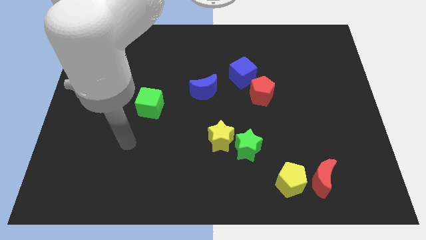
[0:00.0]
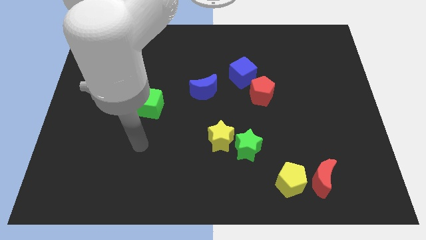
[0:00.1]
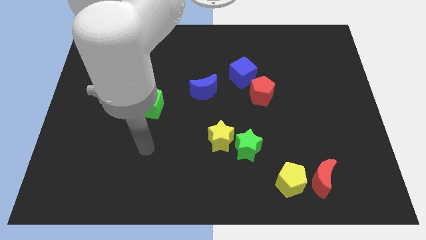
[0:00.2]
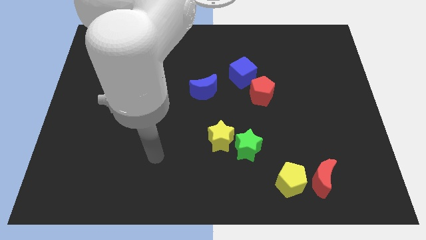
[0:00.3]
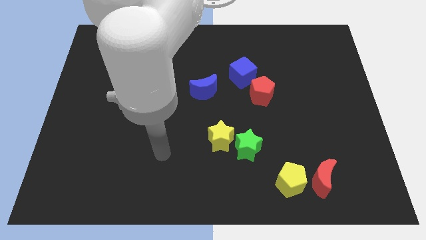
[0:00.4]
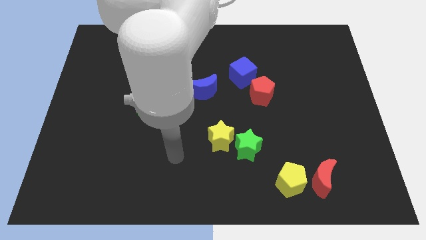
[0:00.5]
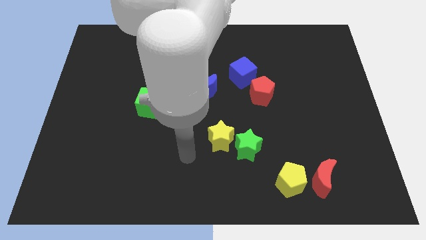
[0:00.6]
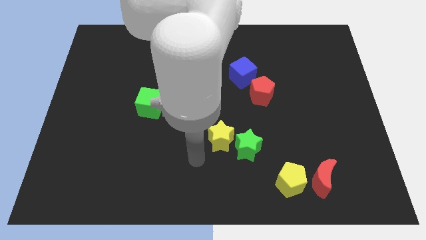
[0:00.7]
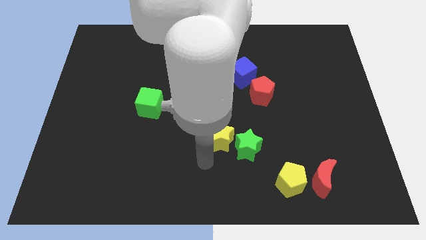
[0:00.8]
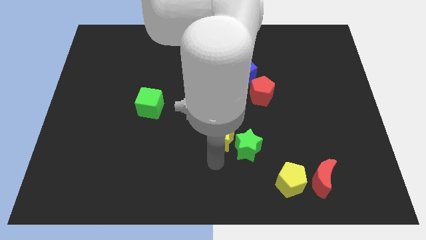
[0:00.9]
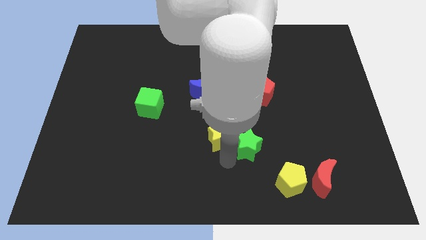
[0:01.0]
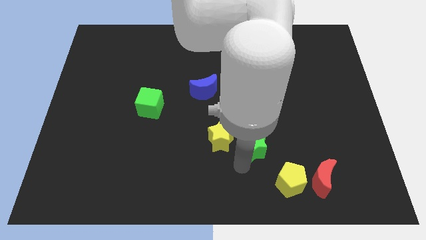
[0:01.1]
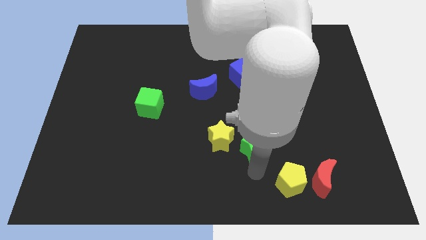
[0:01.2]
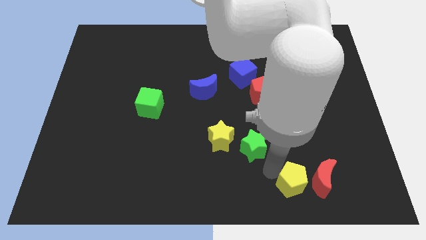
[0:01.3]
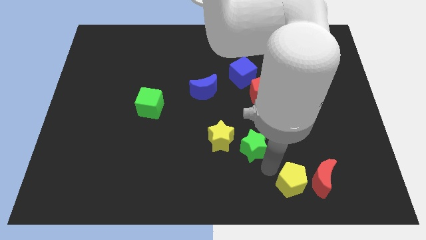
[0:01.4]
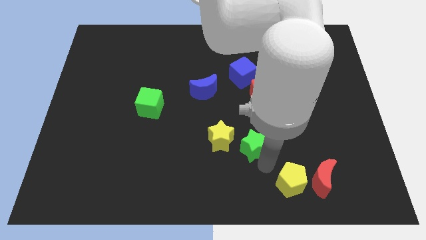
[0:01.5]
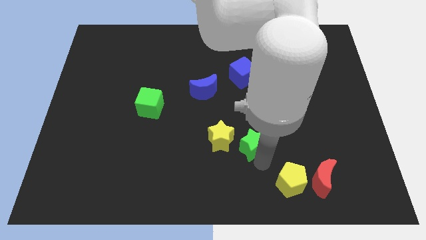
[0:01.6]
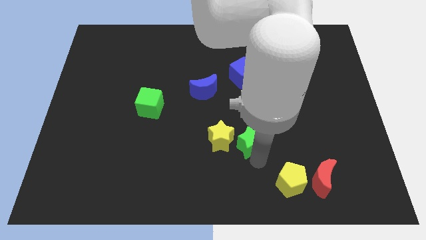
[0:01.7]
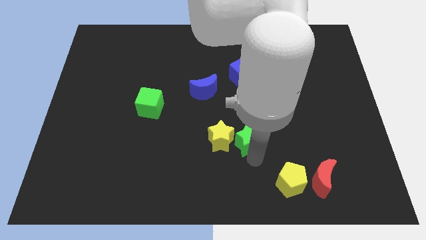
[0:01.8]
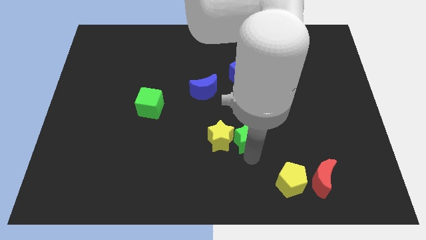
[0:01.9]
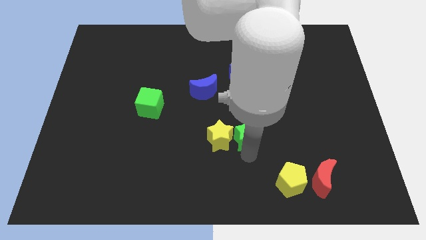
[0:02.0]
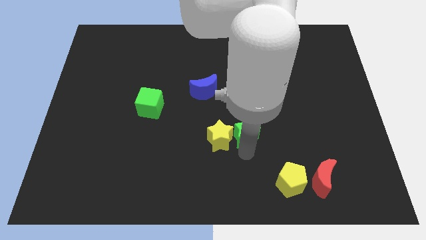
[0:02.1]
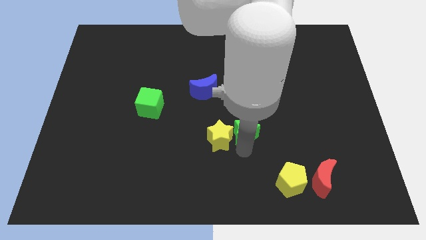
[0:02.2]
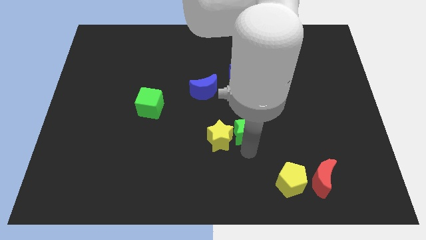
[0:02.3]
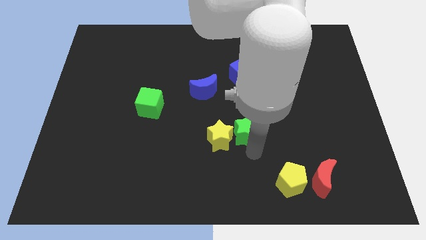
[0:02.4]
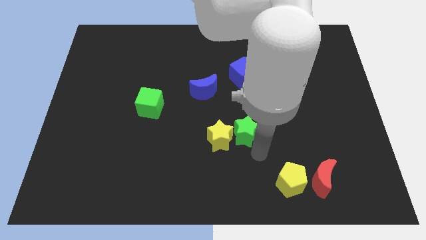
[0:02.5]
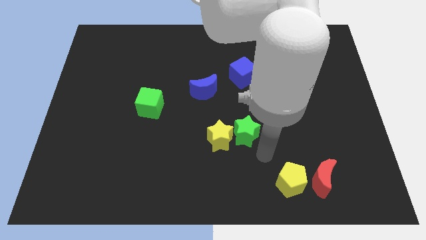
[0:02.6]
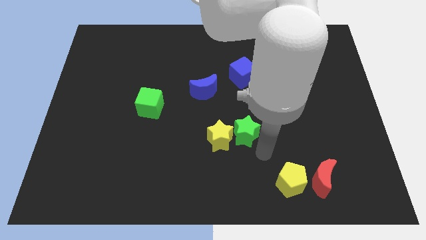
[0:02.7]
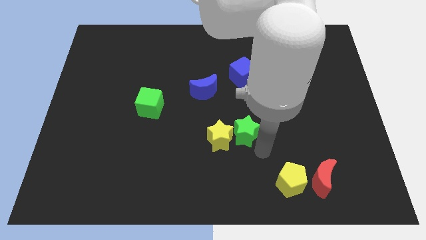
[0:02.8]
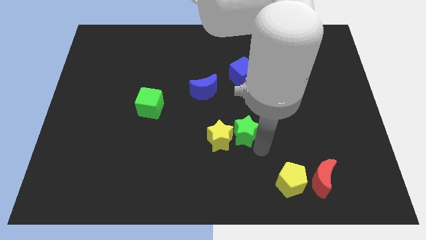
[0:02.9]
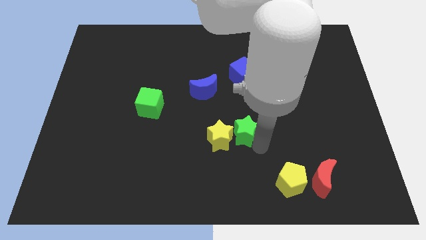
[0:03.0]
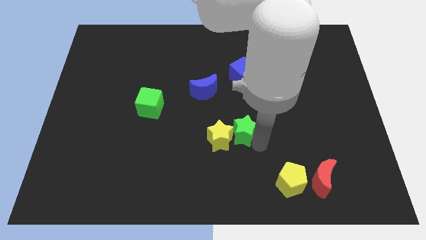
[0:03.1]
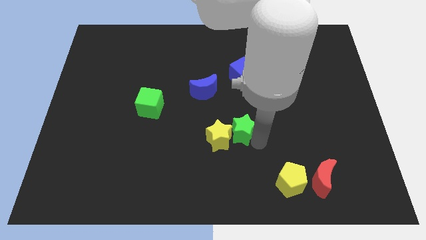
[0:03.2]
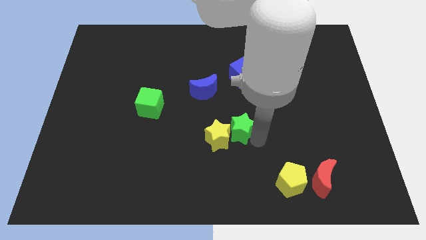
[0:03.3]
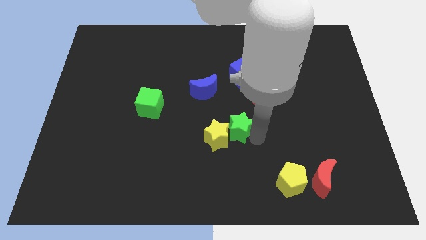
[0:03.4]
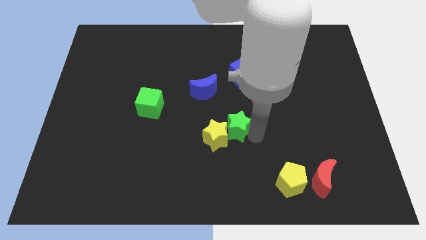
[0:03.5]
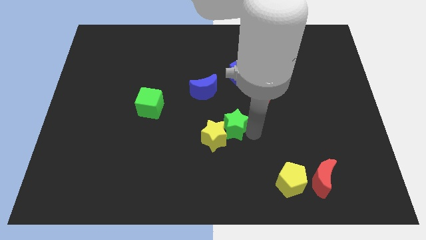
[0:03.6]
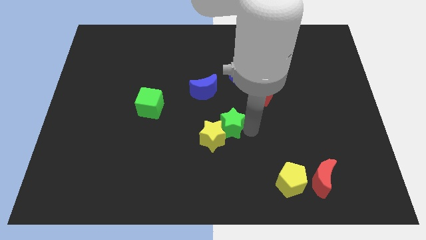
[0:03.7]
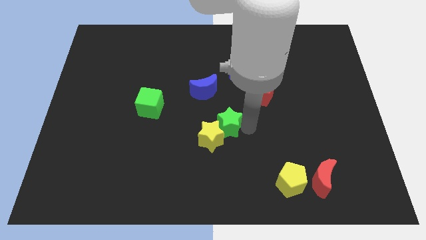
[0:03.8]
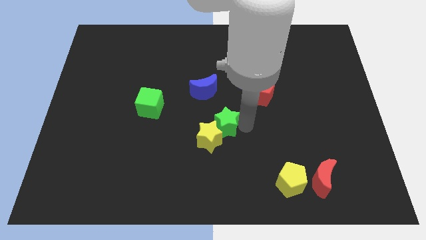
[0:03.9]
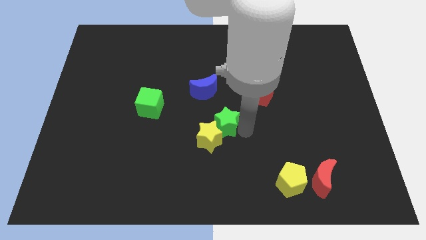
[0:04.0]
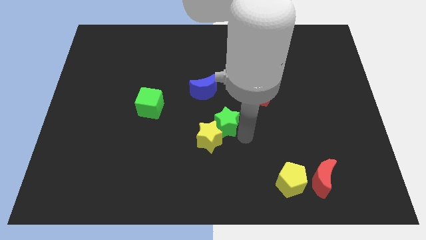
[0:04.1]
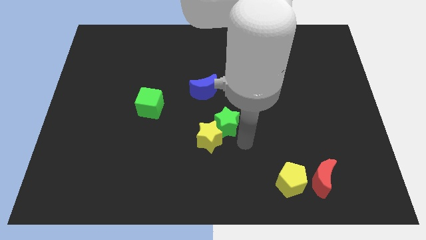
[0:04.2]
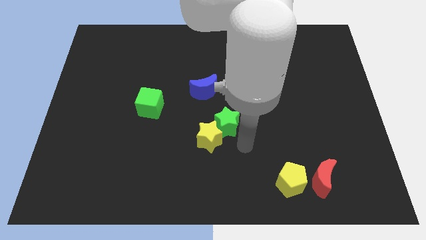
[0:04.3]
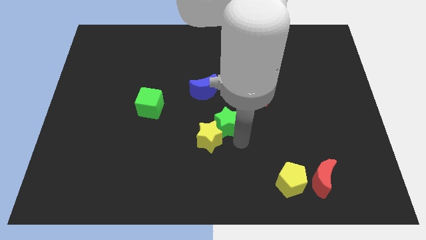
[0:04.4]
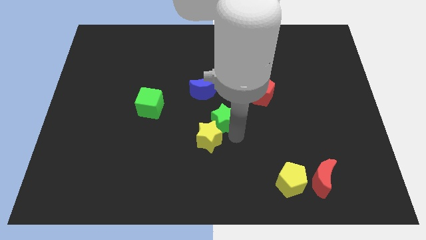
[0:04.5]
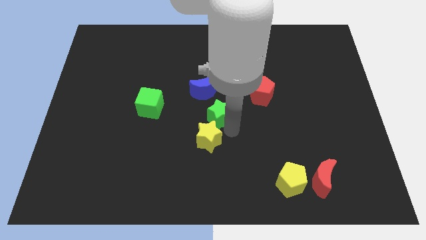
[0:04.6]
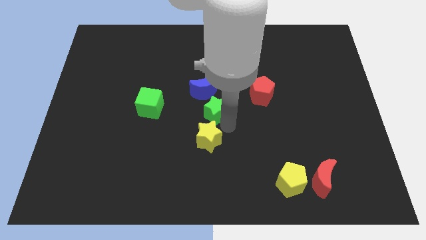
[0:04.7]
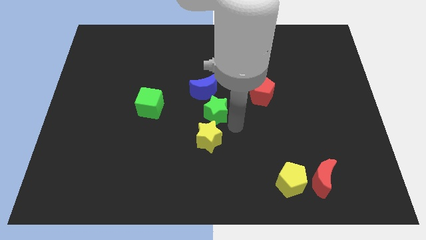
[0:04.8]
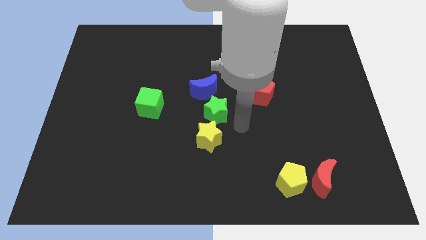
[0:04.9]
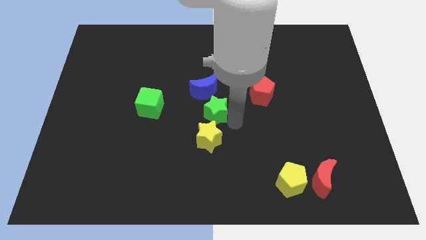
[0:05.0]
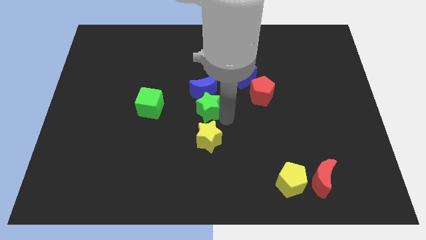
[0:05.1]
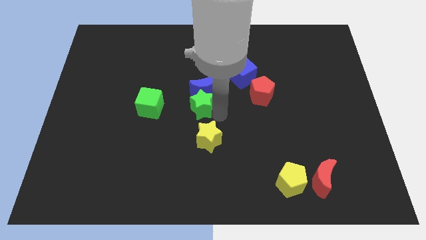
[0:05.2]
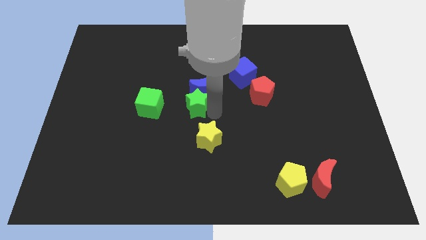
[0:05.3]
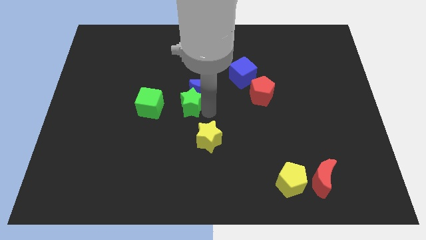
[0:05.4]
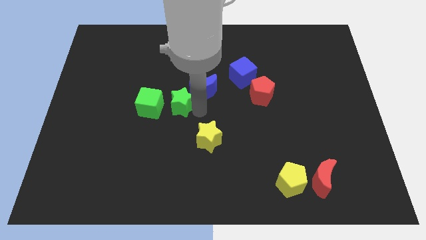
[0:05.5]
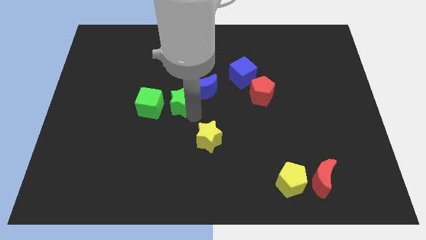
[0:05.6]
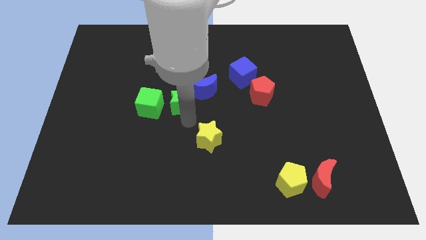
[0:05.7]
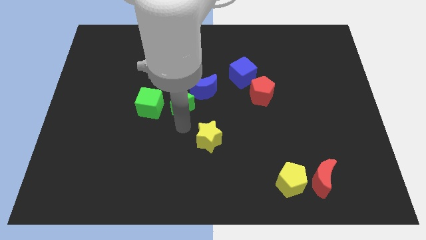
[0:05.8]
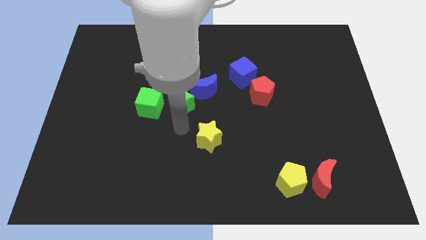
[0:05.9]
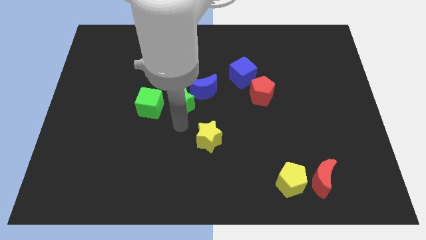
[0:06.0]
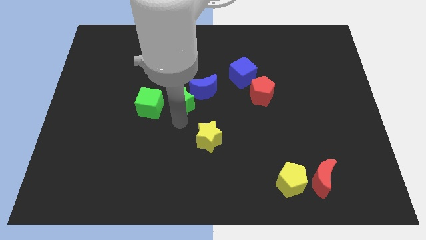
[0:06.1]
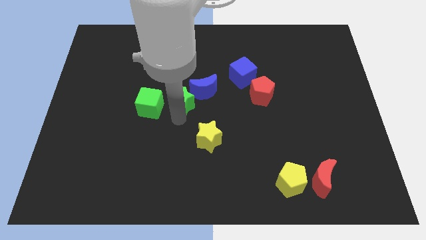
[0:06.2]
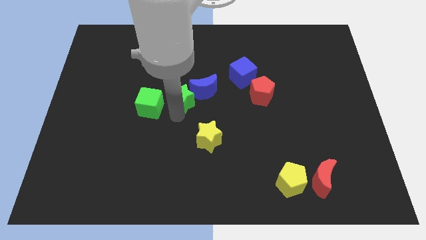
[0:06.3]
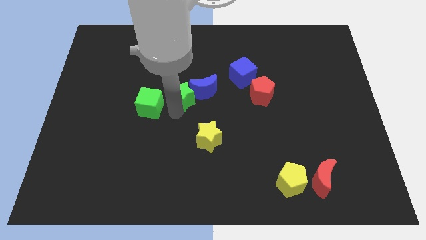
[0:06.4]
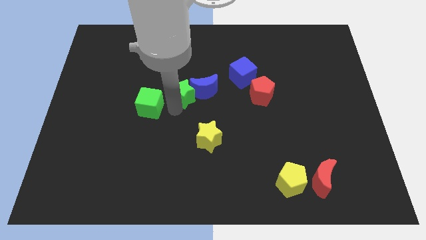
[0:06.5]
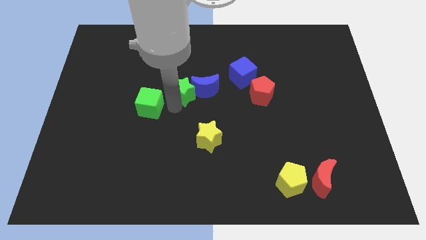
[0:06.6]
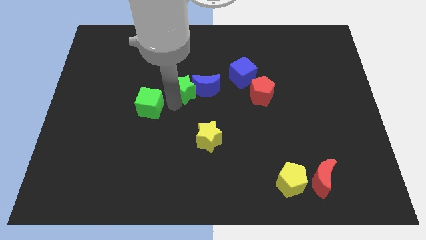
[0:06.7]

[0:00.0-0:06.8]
slide the green star to the top left of the blue moon
